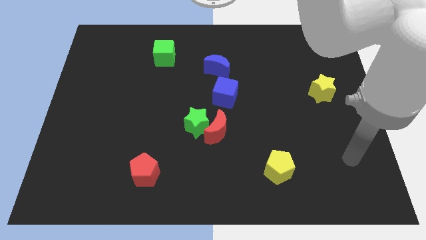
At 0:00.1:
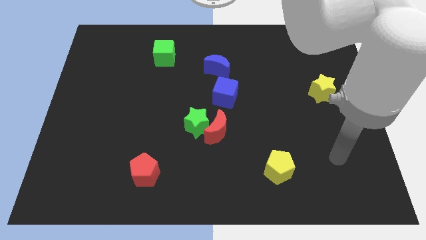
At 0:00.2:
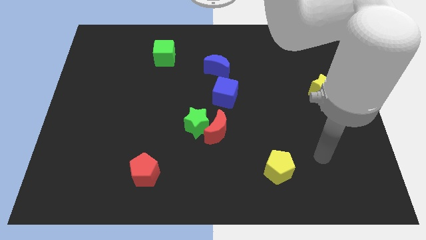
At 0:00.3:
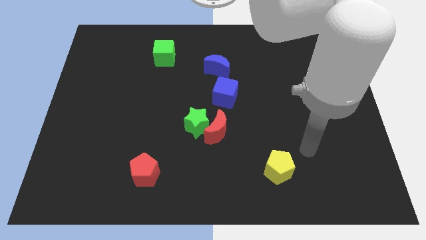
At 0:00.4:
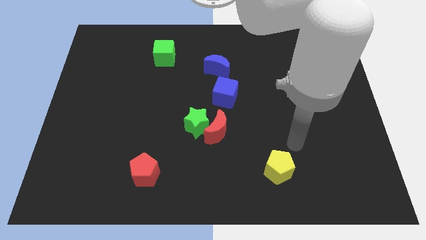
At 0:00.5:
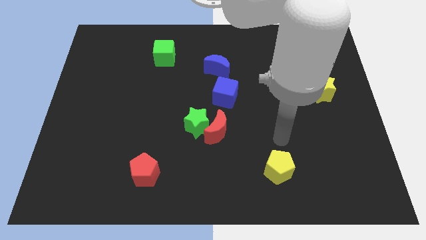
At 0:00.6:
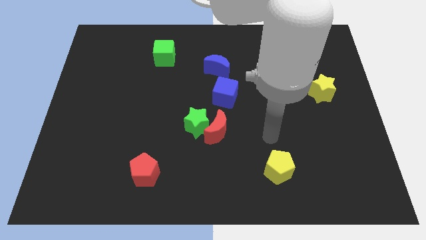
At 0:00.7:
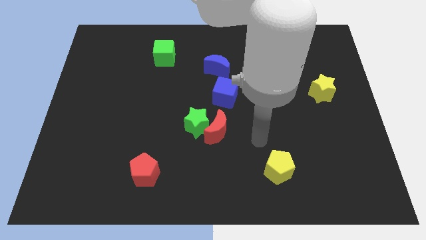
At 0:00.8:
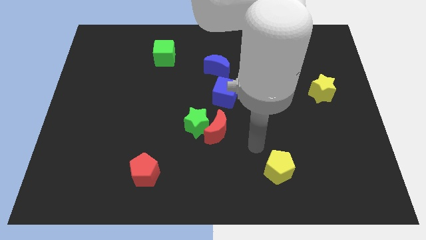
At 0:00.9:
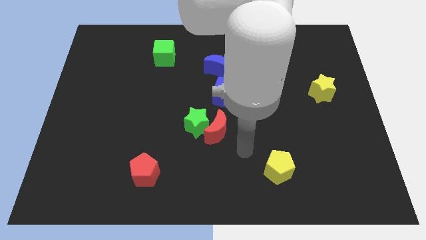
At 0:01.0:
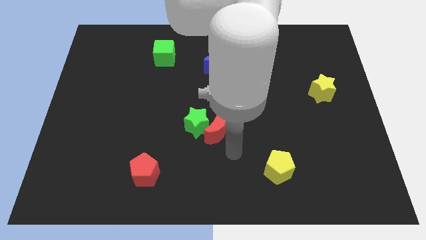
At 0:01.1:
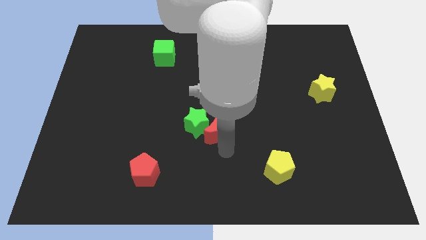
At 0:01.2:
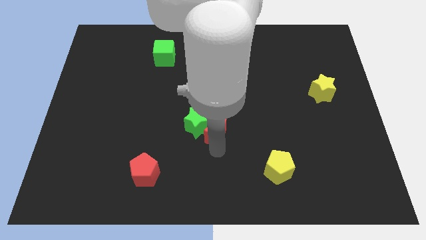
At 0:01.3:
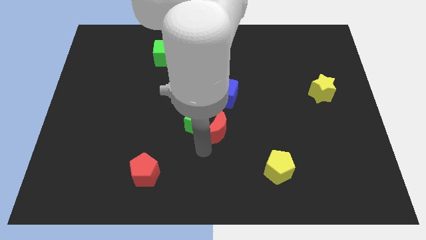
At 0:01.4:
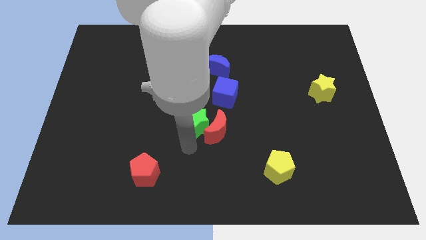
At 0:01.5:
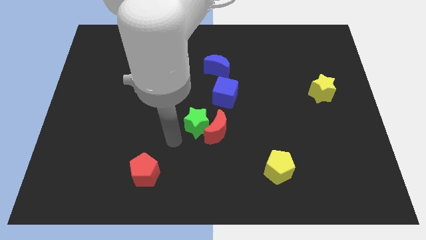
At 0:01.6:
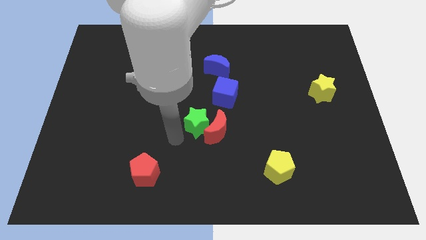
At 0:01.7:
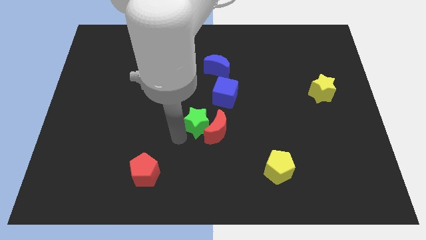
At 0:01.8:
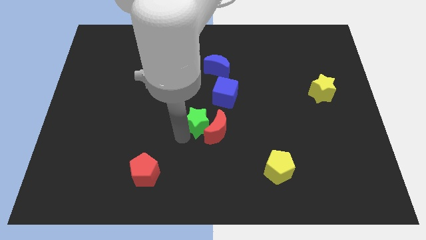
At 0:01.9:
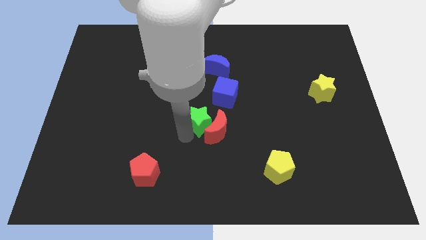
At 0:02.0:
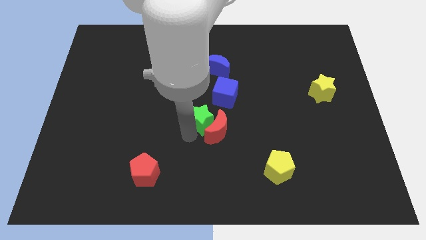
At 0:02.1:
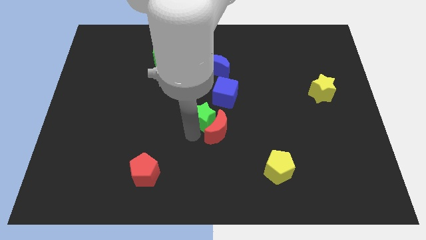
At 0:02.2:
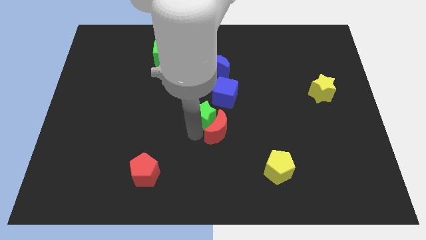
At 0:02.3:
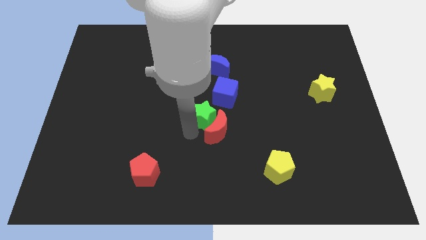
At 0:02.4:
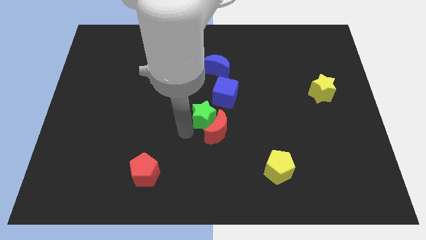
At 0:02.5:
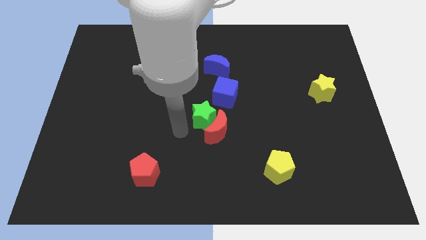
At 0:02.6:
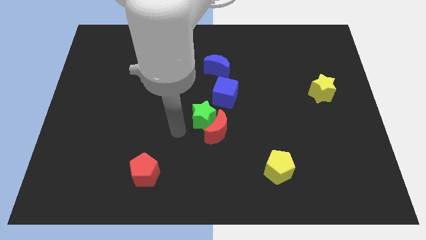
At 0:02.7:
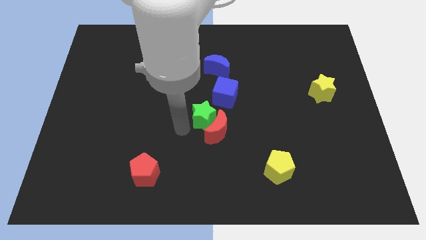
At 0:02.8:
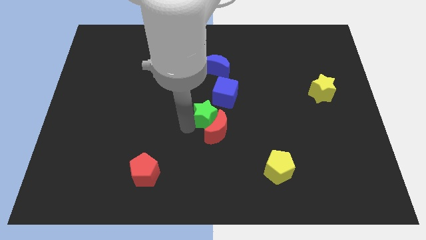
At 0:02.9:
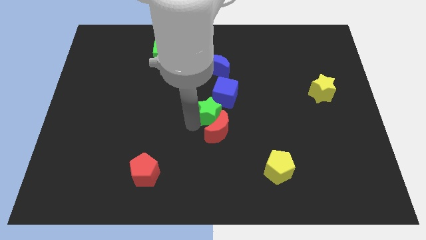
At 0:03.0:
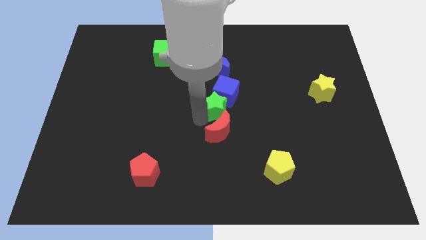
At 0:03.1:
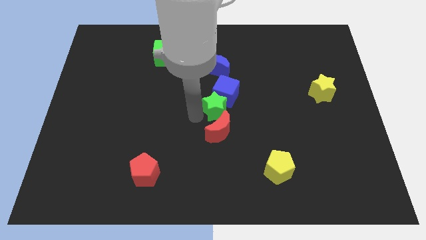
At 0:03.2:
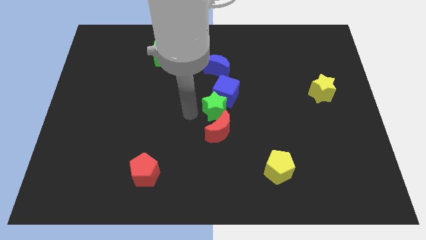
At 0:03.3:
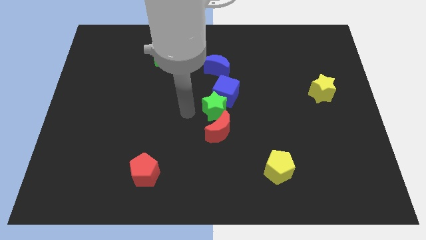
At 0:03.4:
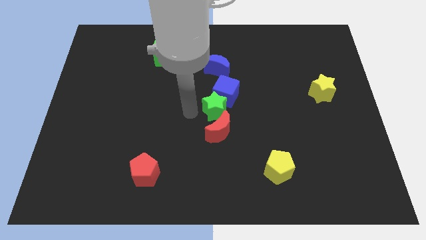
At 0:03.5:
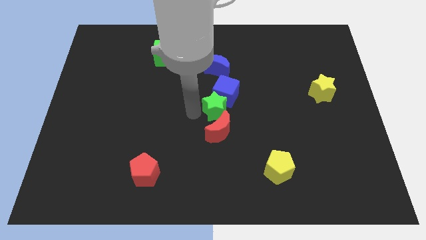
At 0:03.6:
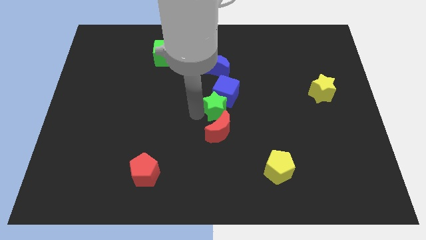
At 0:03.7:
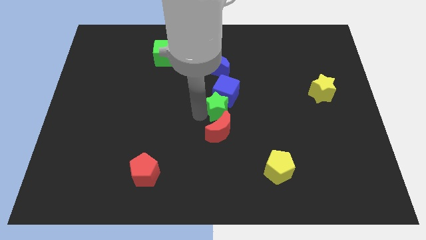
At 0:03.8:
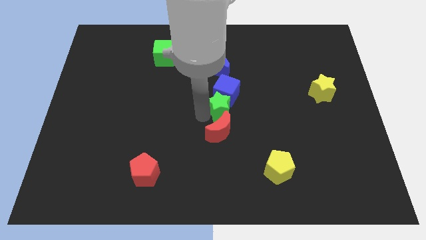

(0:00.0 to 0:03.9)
slightly push the green star up and then to the right

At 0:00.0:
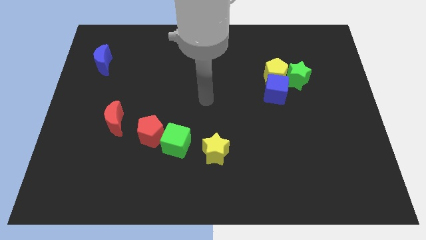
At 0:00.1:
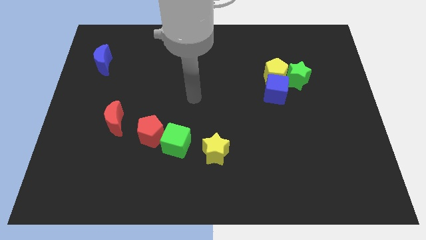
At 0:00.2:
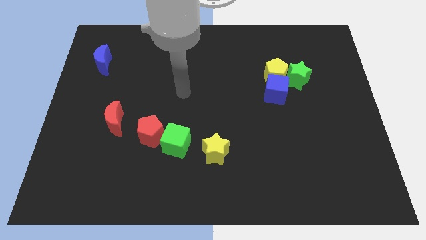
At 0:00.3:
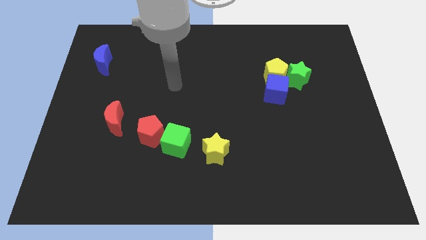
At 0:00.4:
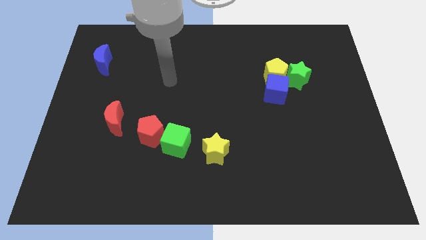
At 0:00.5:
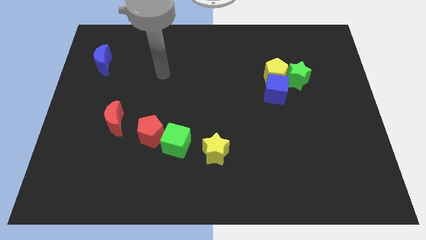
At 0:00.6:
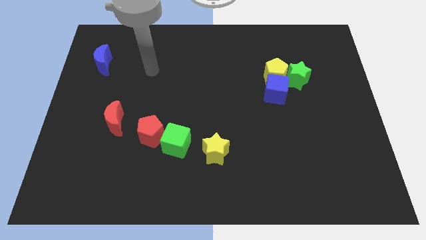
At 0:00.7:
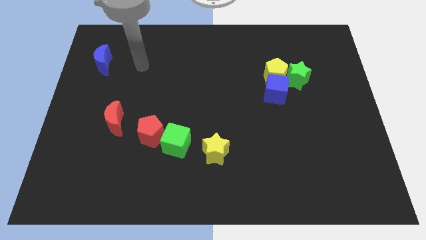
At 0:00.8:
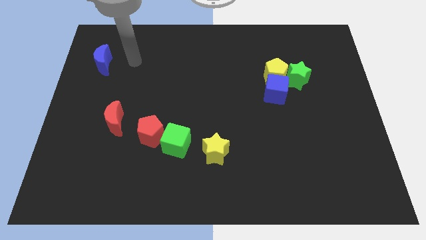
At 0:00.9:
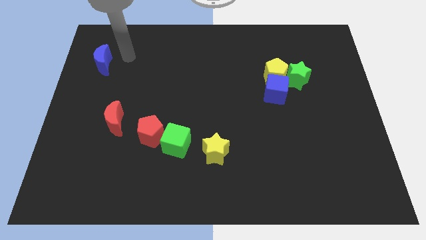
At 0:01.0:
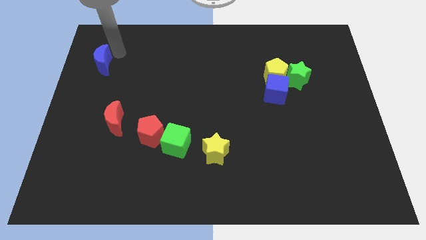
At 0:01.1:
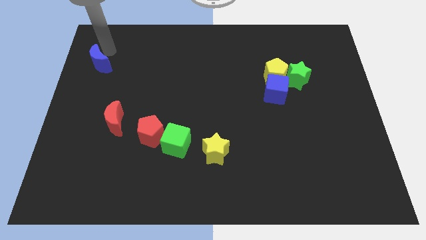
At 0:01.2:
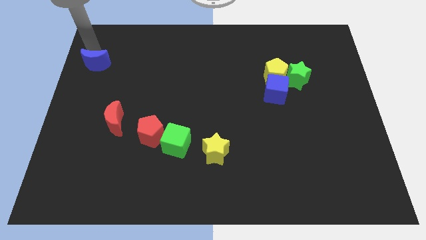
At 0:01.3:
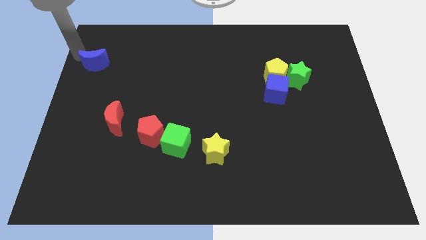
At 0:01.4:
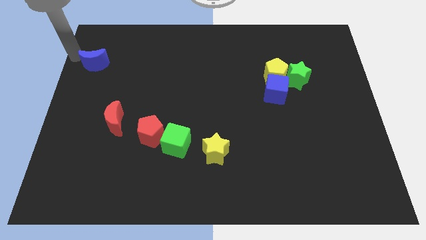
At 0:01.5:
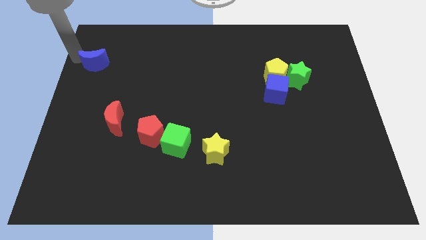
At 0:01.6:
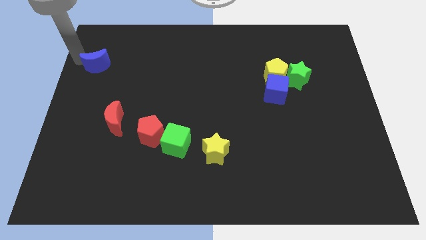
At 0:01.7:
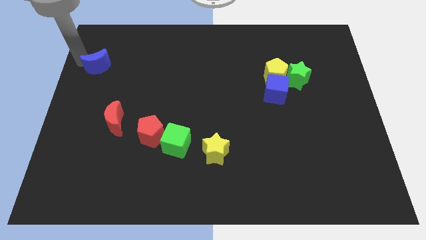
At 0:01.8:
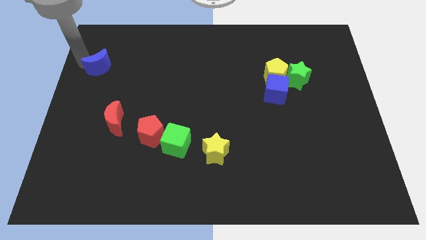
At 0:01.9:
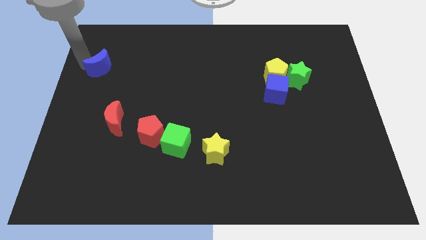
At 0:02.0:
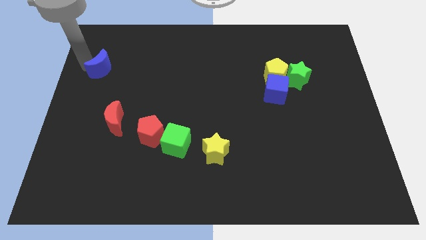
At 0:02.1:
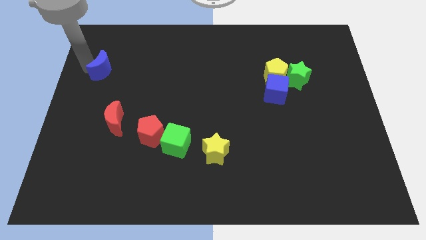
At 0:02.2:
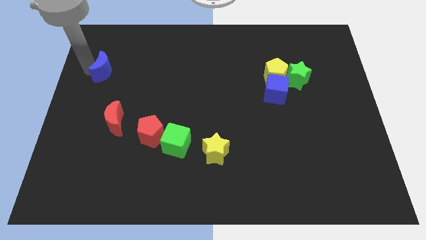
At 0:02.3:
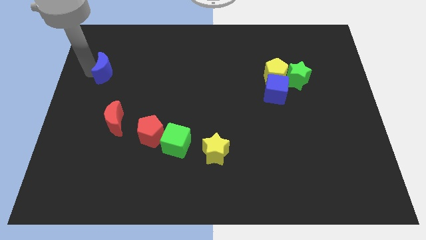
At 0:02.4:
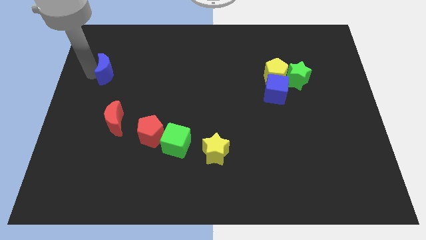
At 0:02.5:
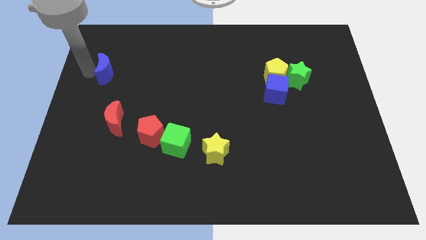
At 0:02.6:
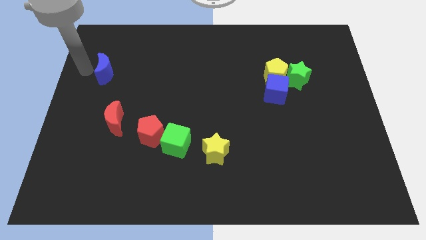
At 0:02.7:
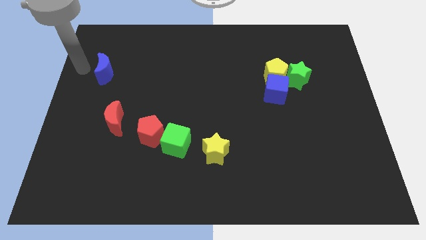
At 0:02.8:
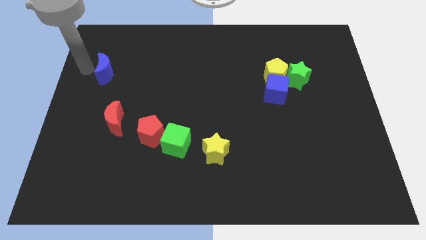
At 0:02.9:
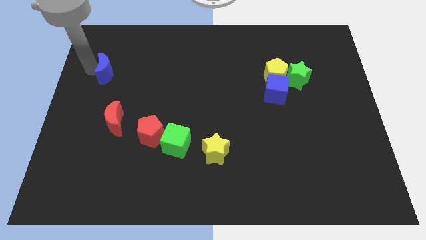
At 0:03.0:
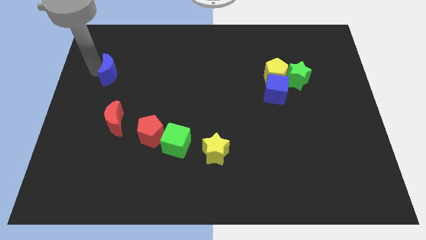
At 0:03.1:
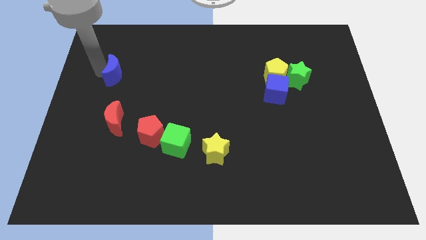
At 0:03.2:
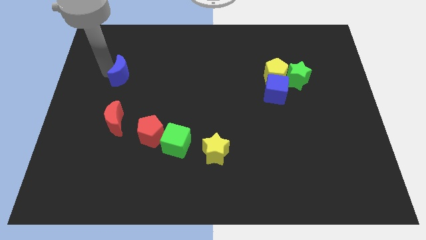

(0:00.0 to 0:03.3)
slightly slide the blue moon diagonally downwards and right
